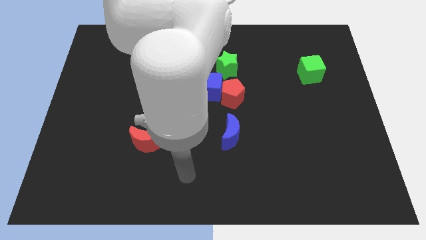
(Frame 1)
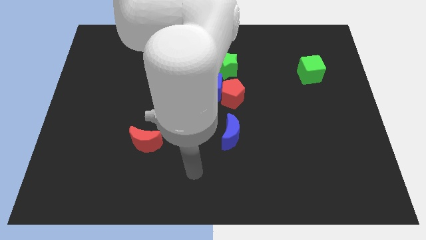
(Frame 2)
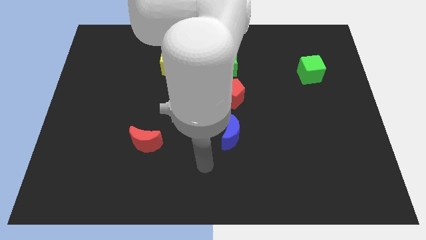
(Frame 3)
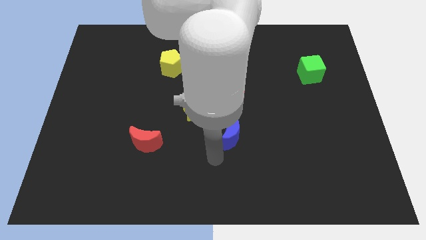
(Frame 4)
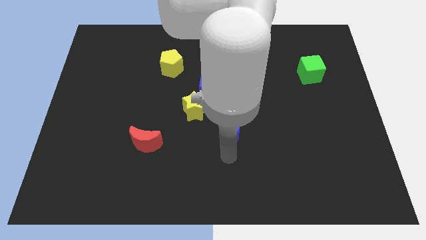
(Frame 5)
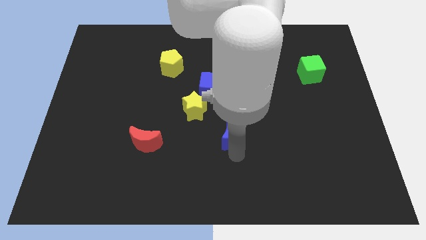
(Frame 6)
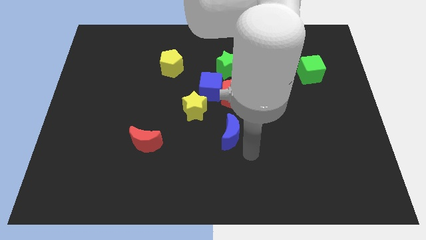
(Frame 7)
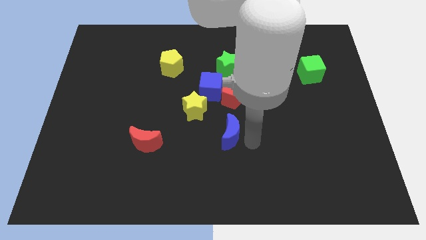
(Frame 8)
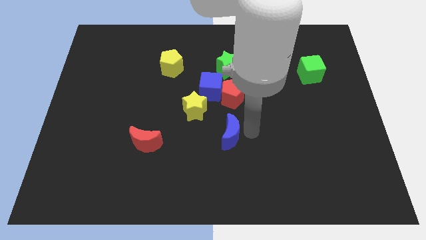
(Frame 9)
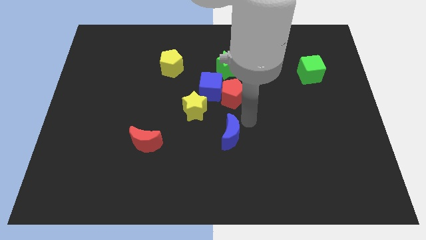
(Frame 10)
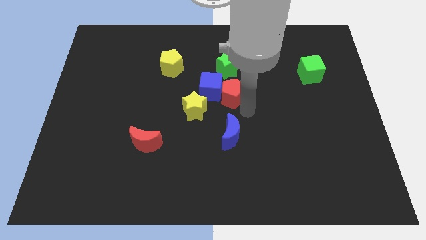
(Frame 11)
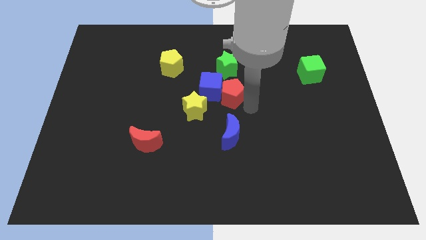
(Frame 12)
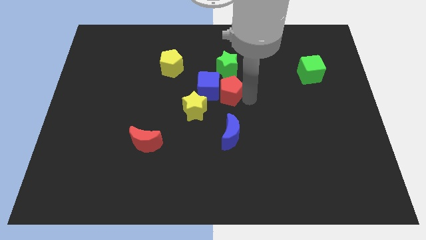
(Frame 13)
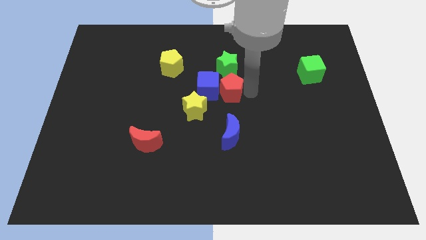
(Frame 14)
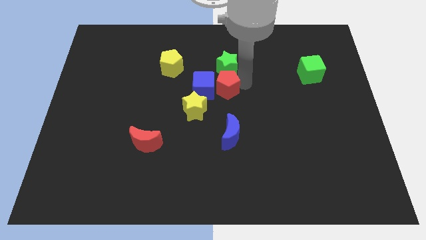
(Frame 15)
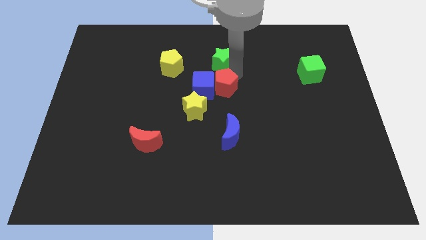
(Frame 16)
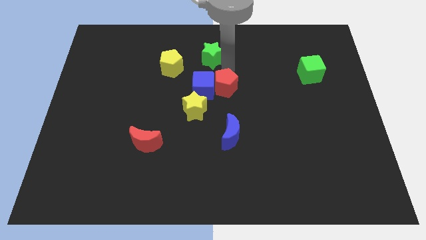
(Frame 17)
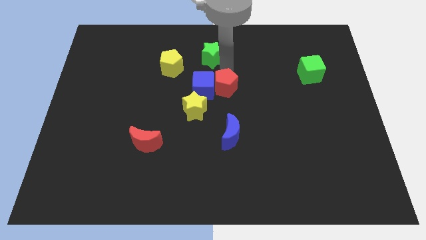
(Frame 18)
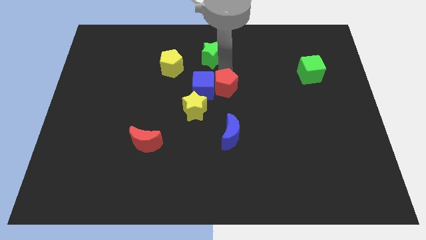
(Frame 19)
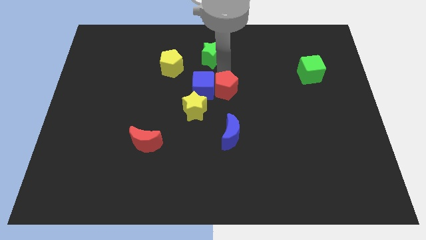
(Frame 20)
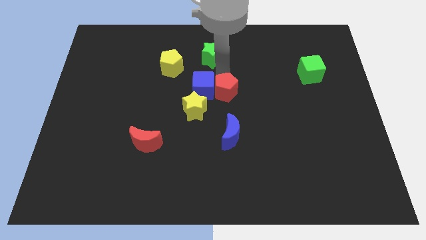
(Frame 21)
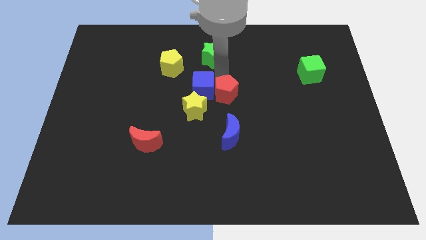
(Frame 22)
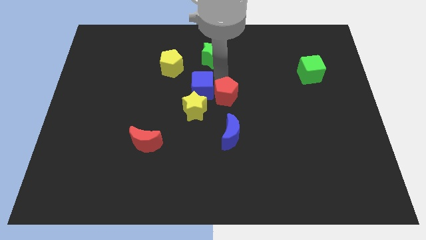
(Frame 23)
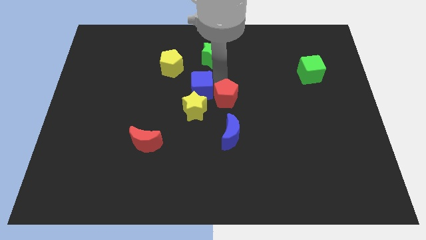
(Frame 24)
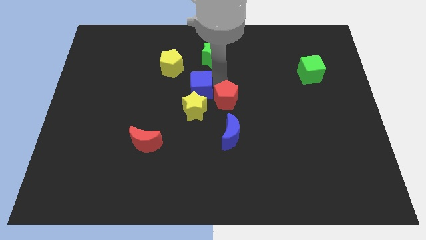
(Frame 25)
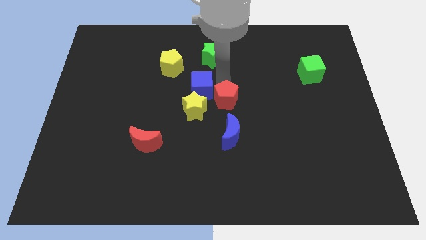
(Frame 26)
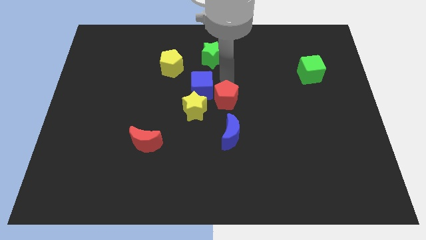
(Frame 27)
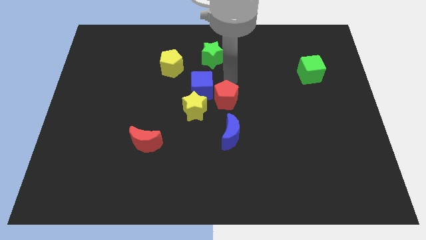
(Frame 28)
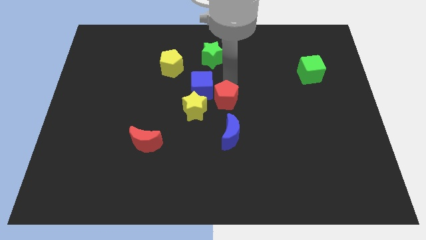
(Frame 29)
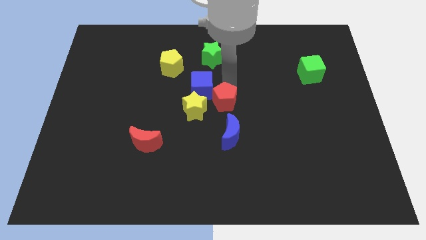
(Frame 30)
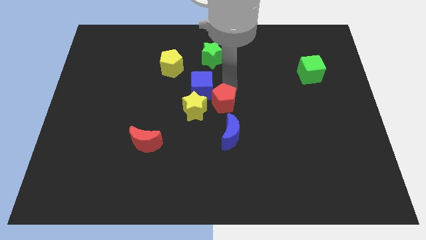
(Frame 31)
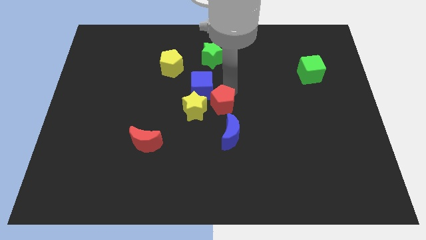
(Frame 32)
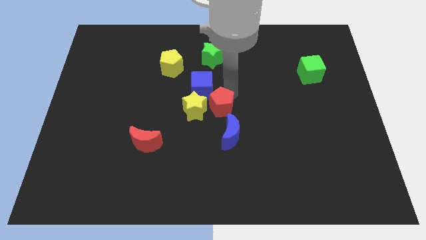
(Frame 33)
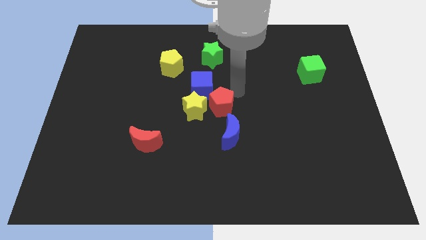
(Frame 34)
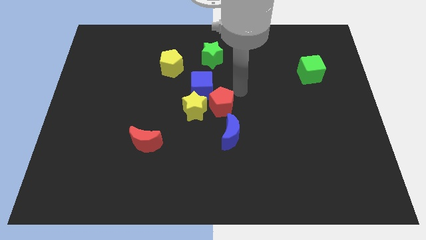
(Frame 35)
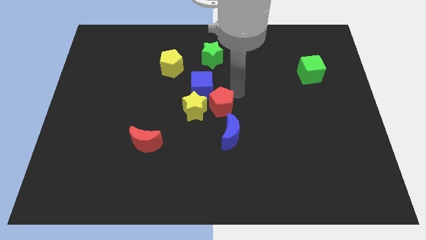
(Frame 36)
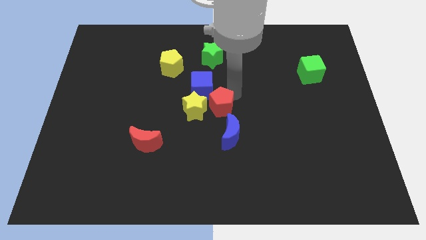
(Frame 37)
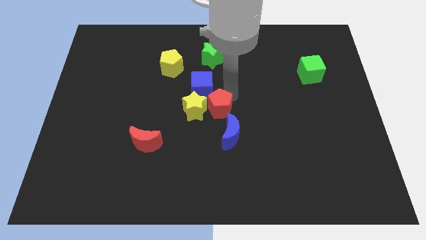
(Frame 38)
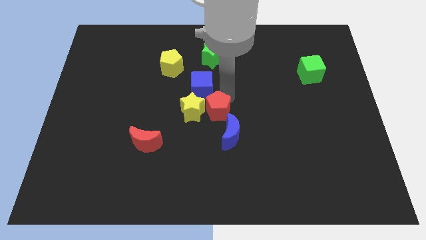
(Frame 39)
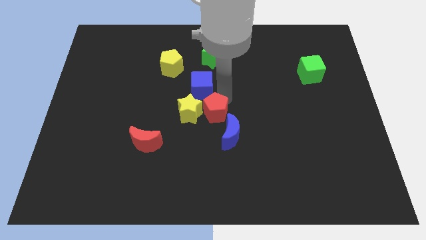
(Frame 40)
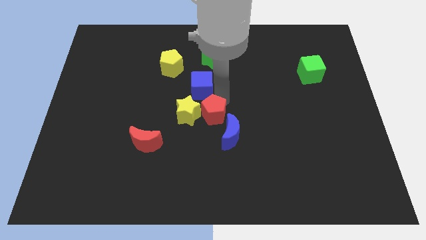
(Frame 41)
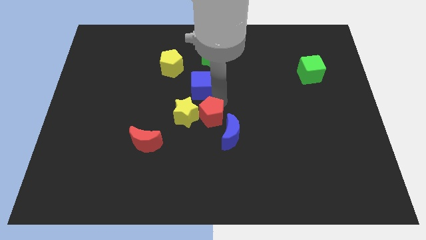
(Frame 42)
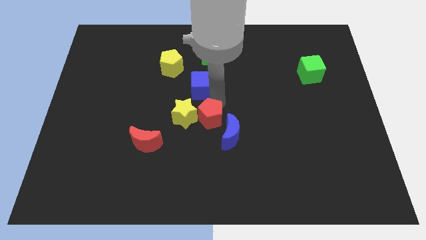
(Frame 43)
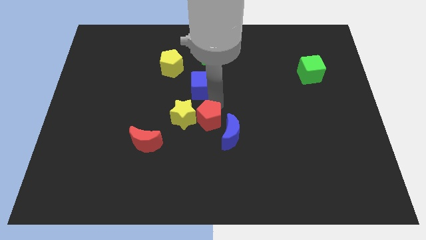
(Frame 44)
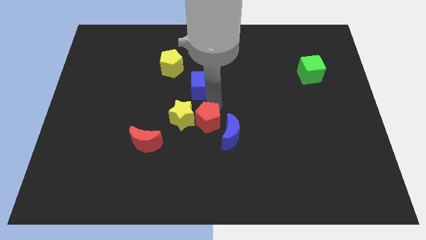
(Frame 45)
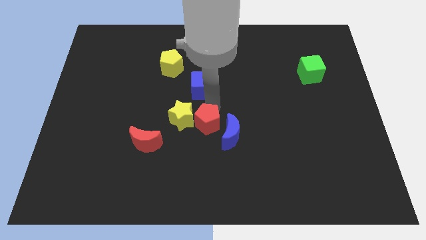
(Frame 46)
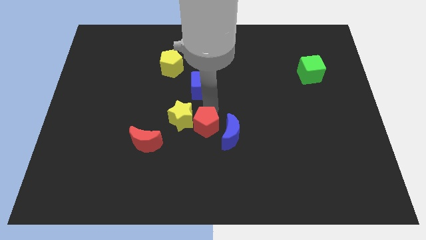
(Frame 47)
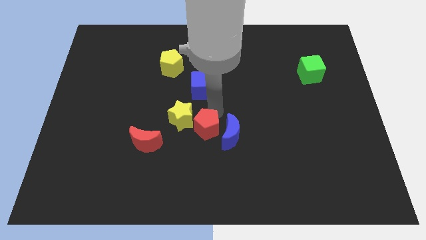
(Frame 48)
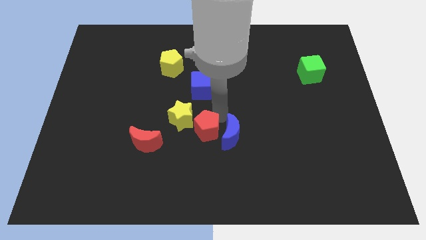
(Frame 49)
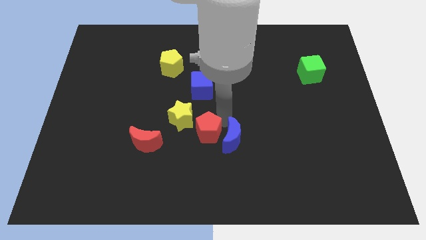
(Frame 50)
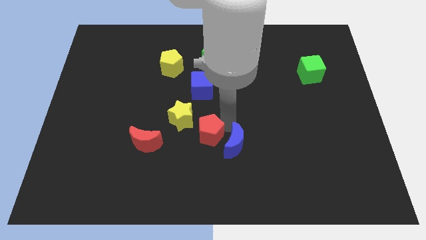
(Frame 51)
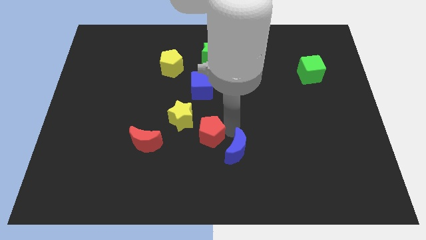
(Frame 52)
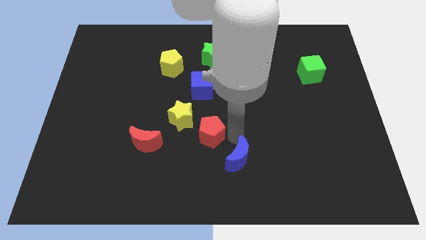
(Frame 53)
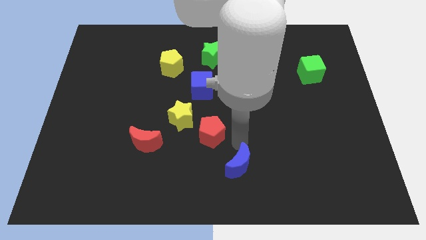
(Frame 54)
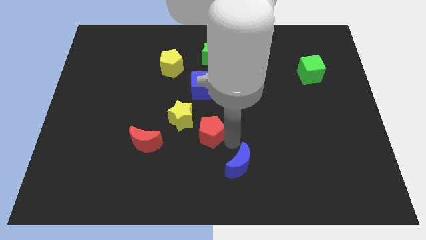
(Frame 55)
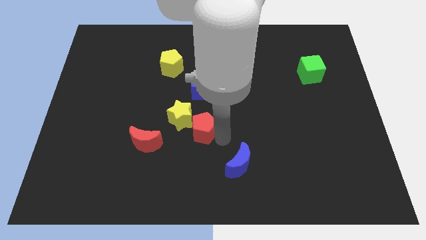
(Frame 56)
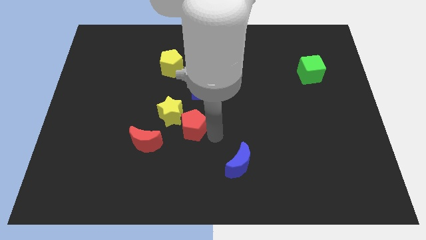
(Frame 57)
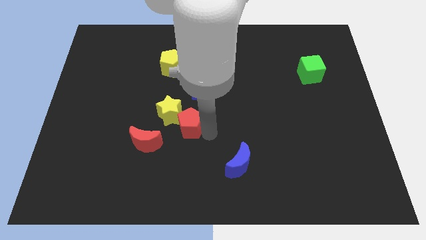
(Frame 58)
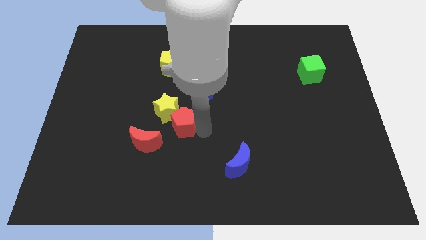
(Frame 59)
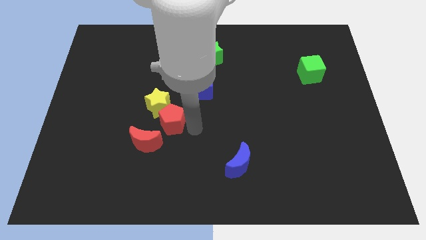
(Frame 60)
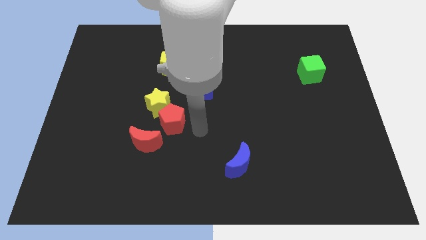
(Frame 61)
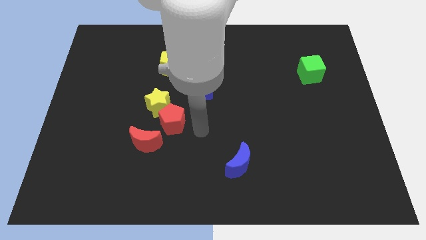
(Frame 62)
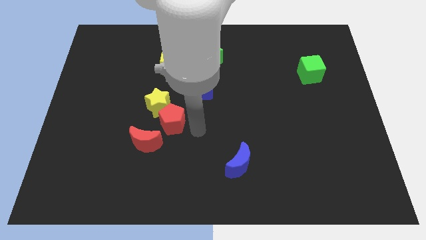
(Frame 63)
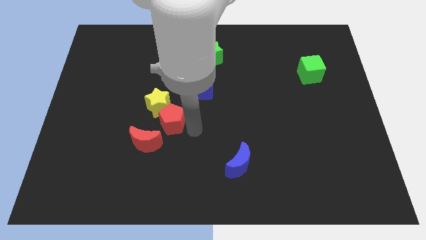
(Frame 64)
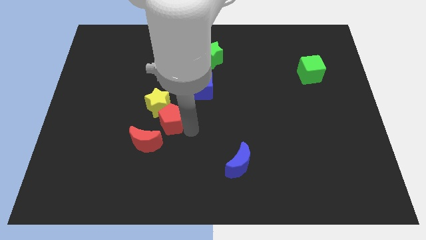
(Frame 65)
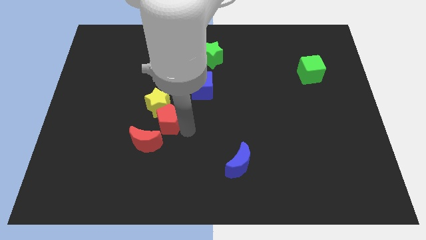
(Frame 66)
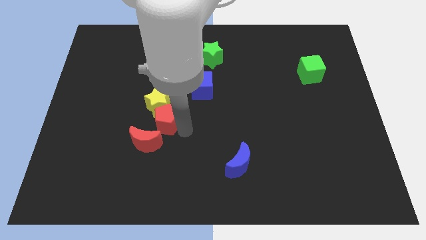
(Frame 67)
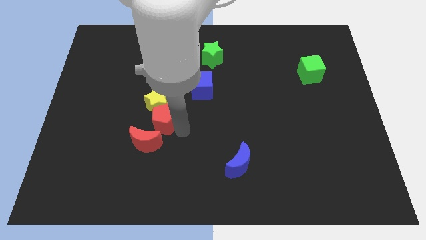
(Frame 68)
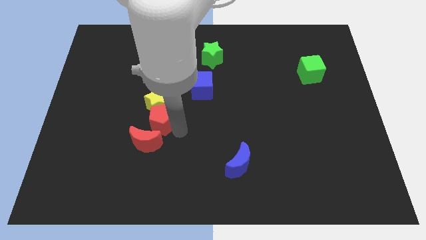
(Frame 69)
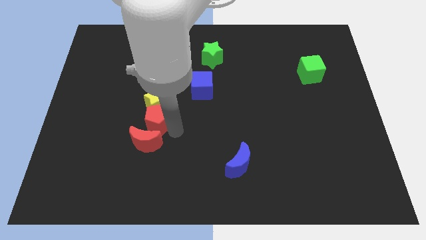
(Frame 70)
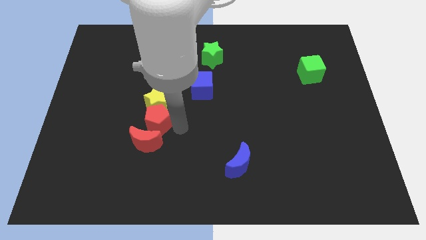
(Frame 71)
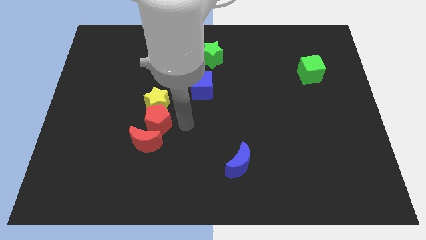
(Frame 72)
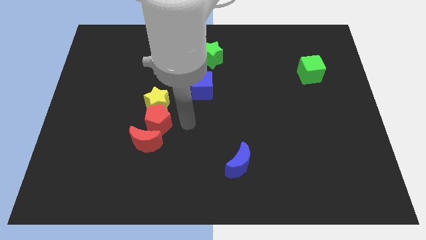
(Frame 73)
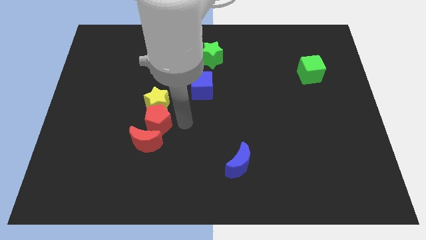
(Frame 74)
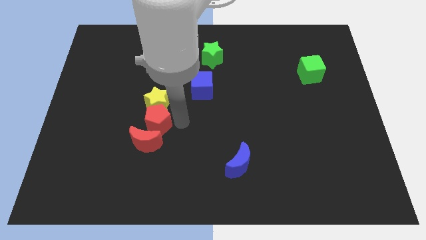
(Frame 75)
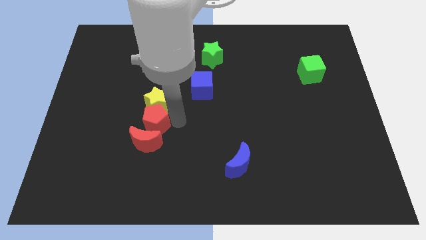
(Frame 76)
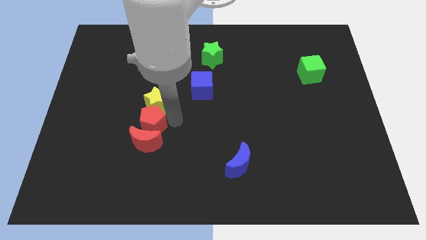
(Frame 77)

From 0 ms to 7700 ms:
put the red pentagon to the top left side of the red moon

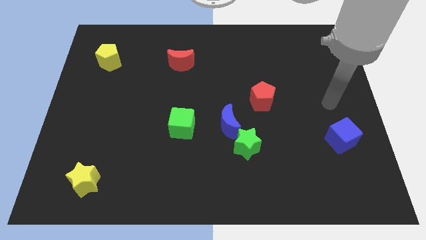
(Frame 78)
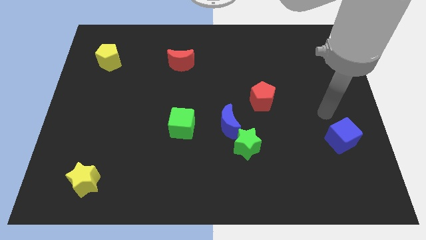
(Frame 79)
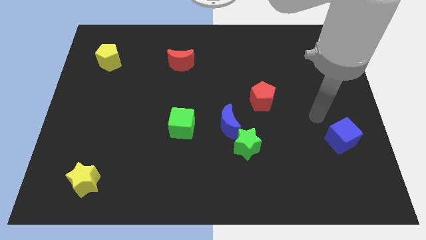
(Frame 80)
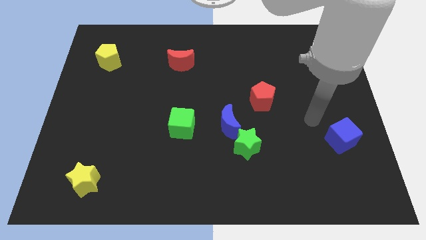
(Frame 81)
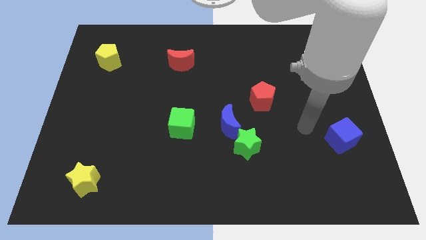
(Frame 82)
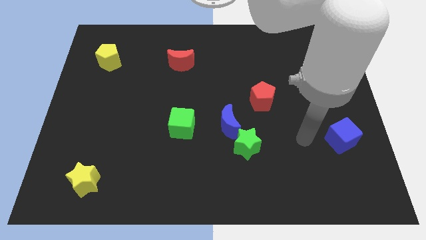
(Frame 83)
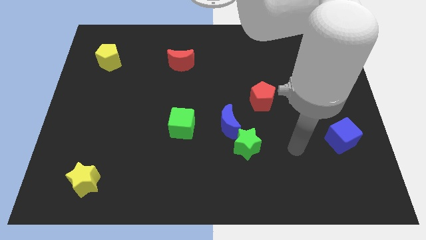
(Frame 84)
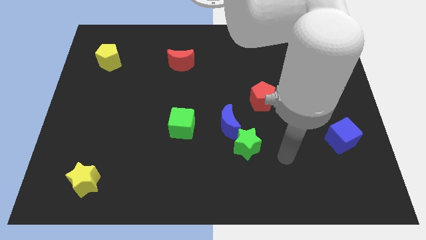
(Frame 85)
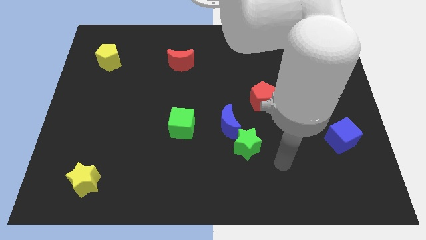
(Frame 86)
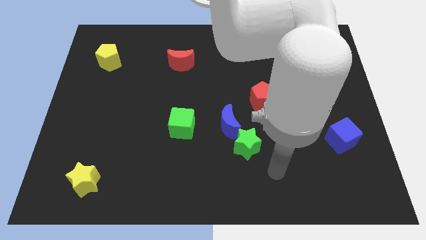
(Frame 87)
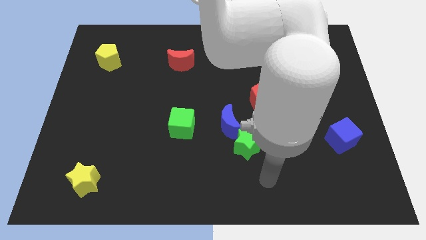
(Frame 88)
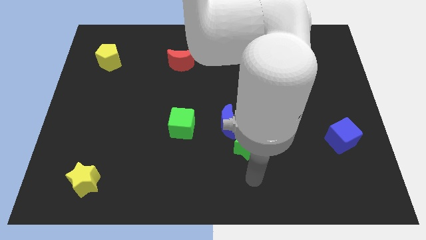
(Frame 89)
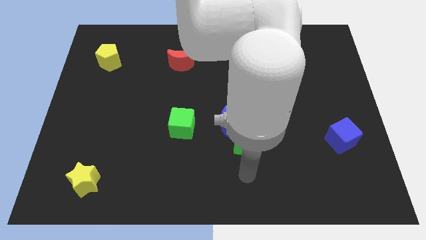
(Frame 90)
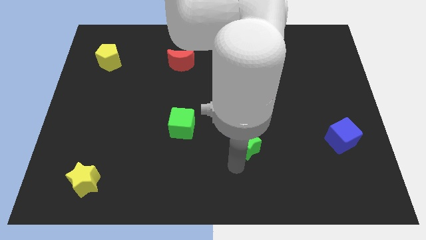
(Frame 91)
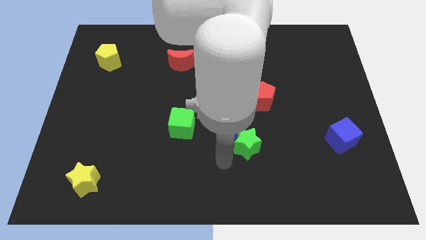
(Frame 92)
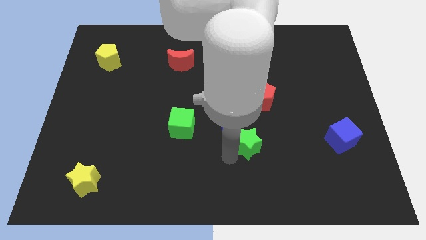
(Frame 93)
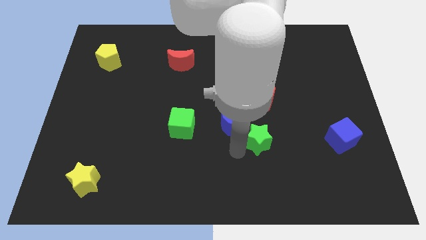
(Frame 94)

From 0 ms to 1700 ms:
slide the green star just right of the blue moon
